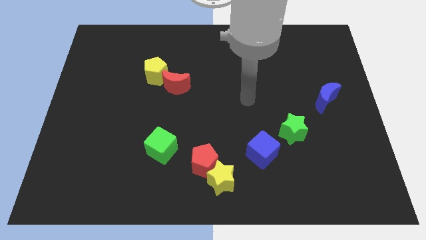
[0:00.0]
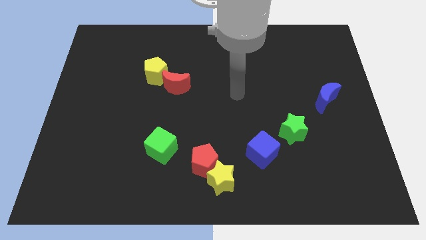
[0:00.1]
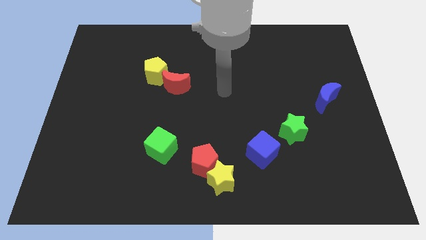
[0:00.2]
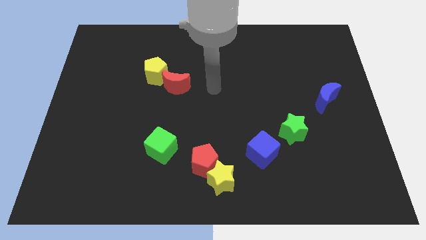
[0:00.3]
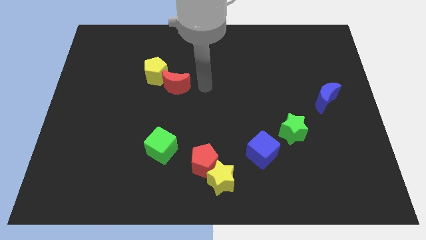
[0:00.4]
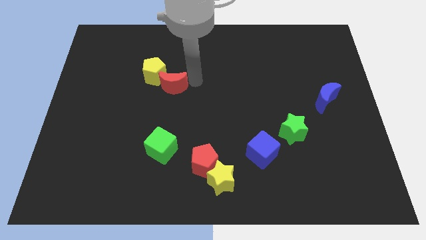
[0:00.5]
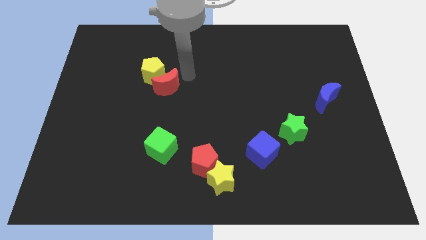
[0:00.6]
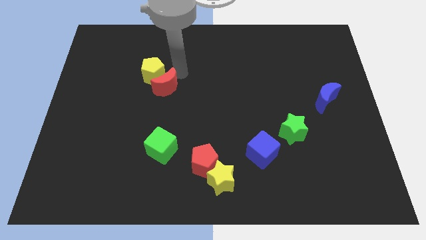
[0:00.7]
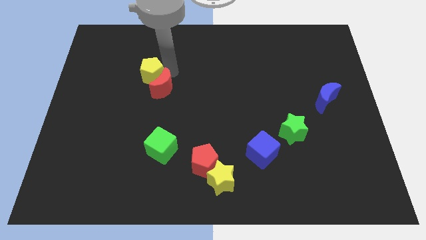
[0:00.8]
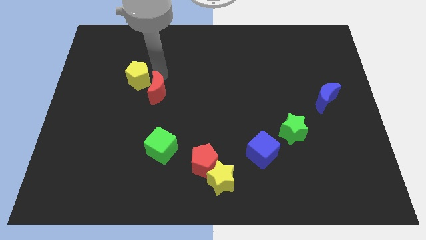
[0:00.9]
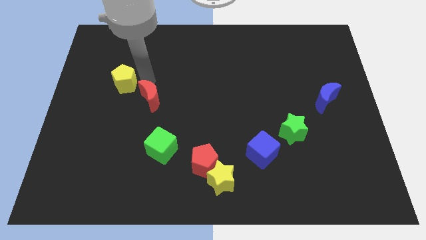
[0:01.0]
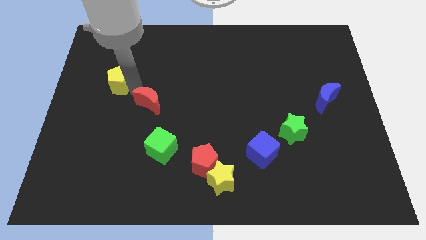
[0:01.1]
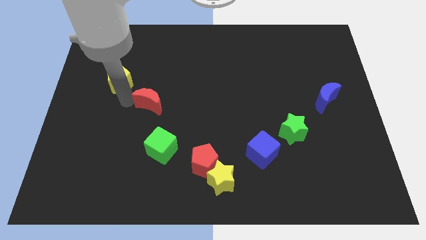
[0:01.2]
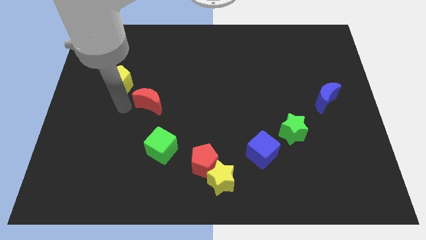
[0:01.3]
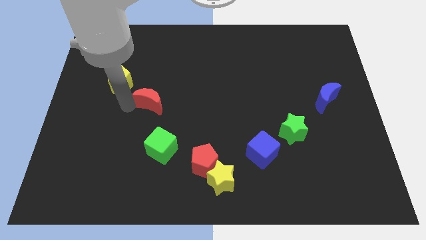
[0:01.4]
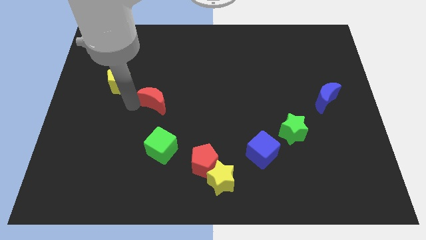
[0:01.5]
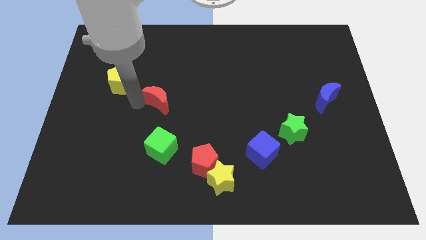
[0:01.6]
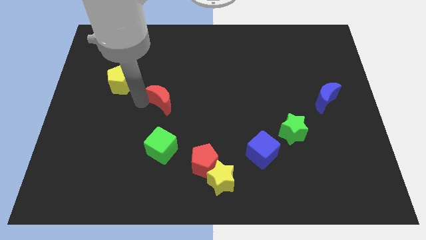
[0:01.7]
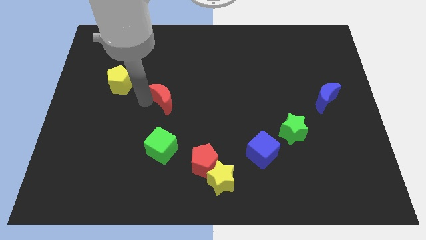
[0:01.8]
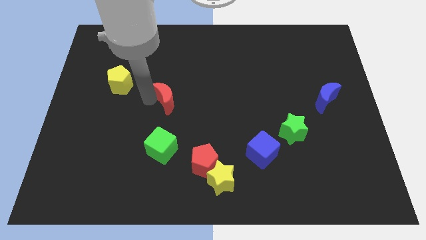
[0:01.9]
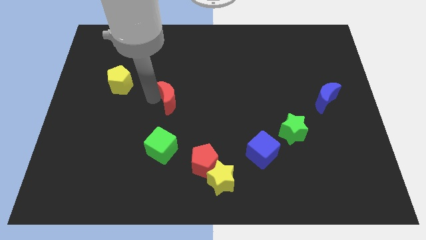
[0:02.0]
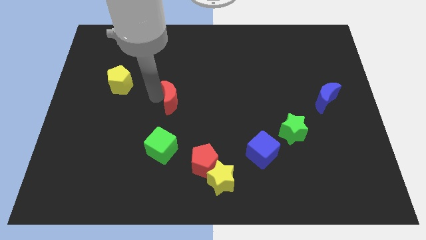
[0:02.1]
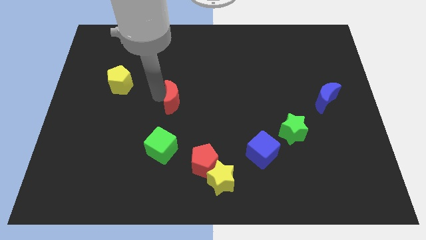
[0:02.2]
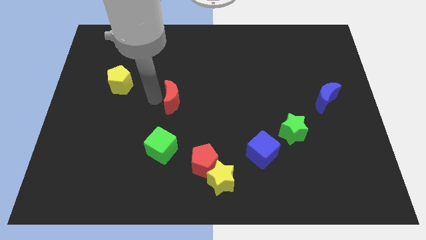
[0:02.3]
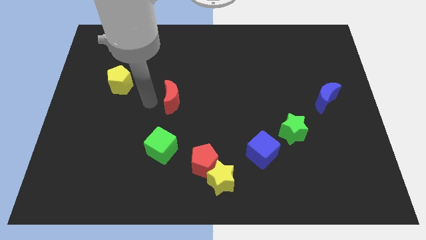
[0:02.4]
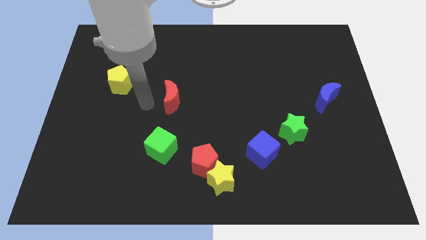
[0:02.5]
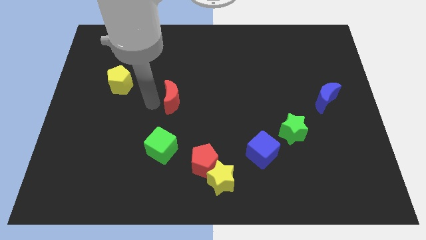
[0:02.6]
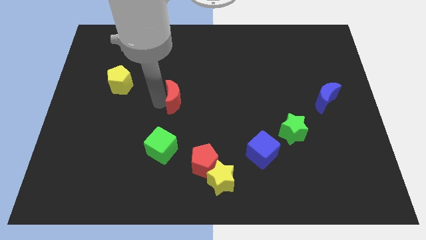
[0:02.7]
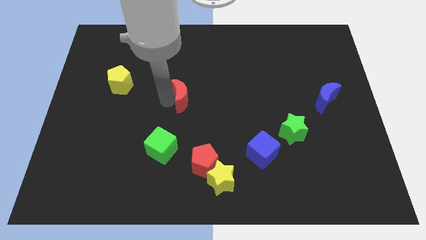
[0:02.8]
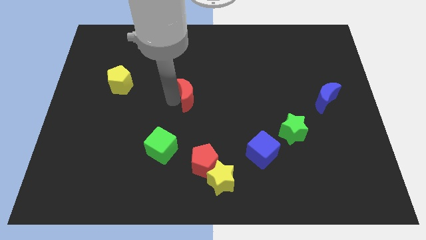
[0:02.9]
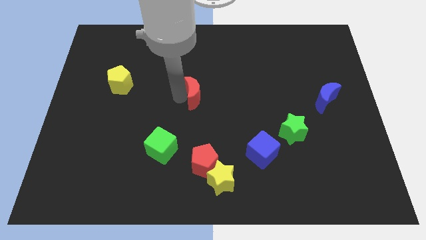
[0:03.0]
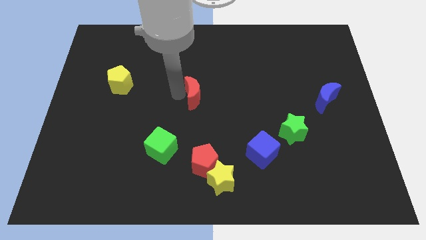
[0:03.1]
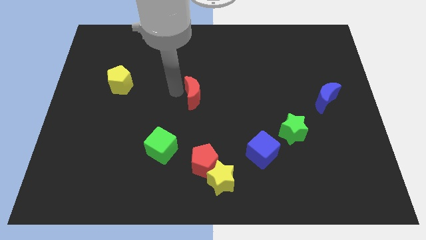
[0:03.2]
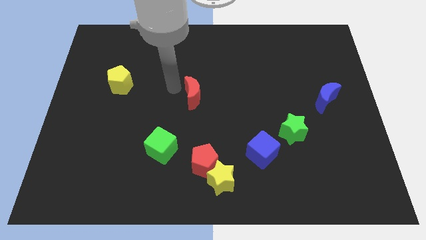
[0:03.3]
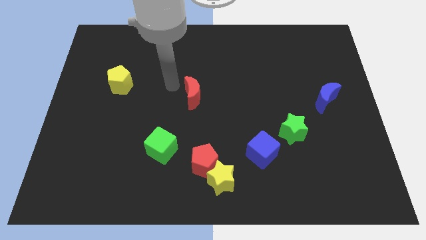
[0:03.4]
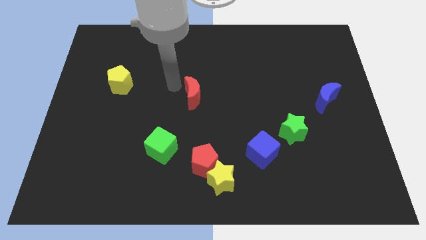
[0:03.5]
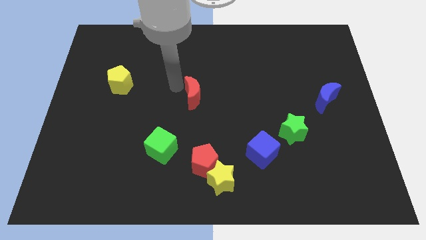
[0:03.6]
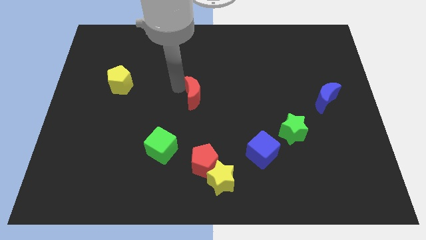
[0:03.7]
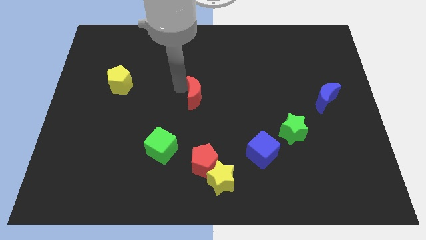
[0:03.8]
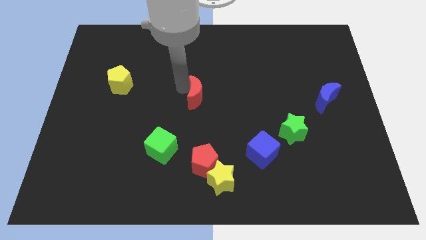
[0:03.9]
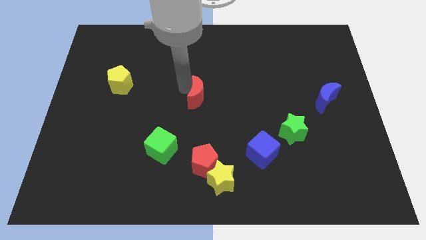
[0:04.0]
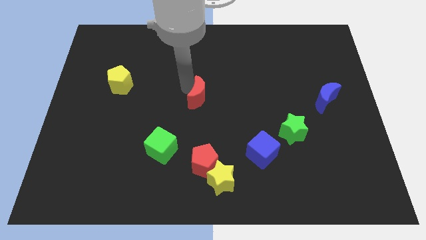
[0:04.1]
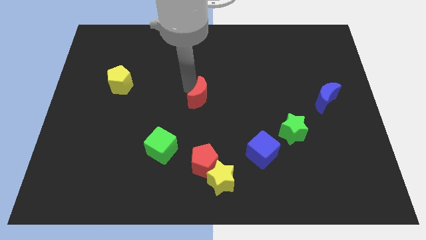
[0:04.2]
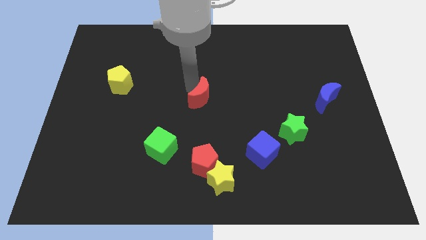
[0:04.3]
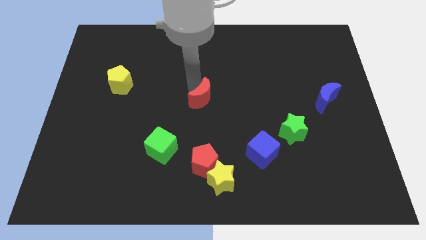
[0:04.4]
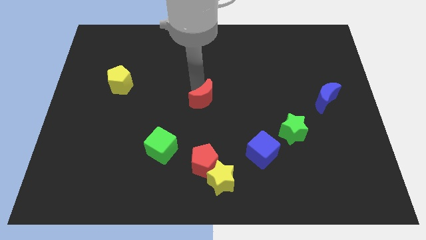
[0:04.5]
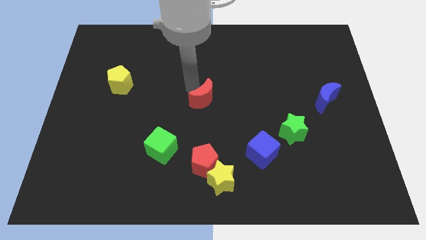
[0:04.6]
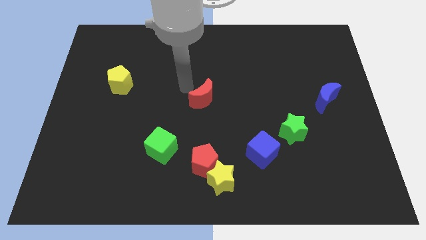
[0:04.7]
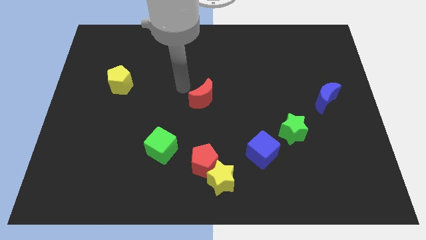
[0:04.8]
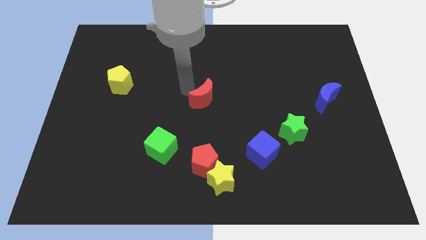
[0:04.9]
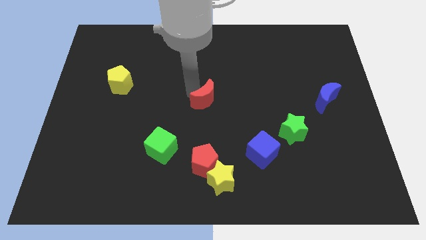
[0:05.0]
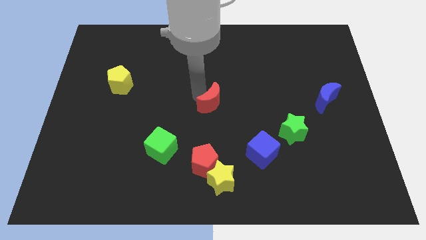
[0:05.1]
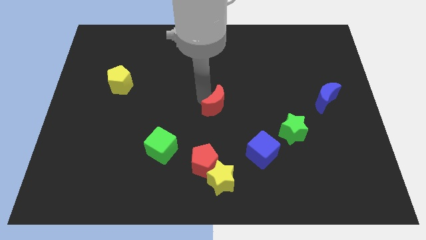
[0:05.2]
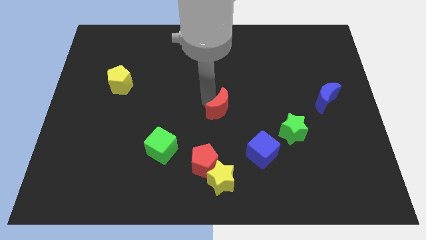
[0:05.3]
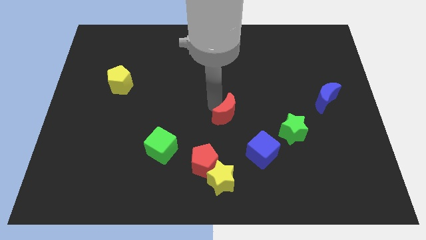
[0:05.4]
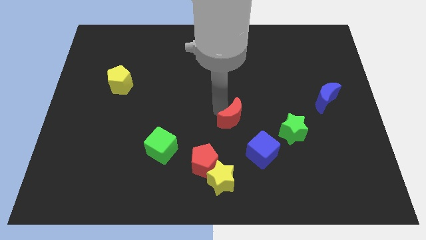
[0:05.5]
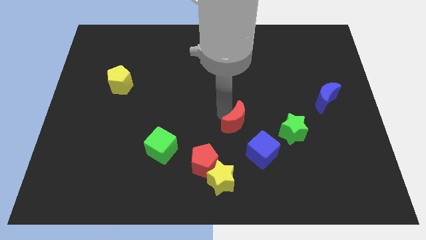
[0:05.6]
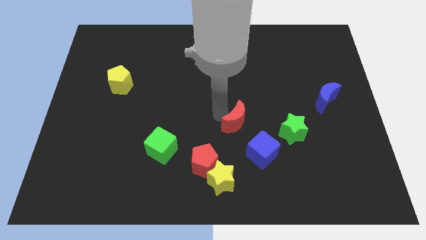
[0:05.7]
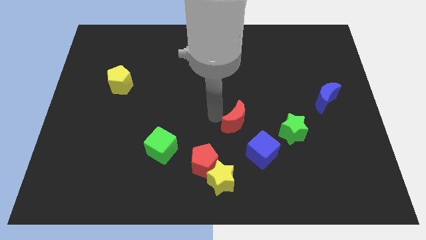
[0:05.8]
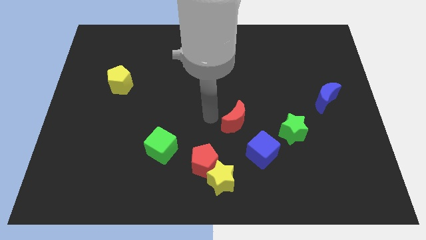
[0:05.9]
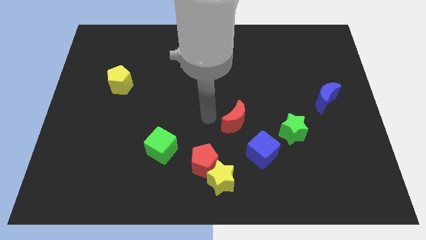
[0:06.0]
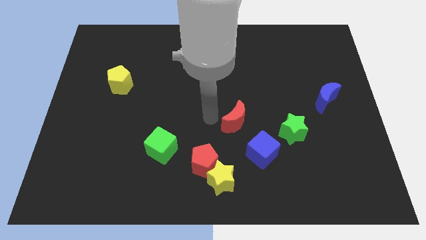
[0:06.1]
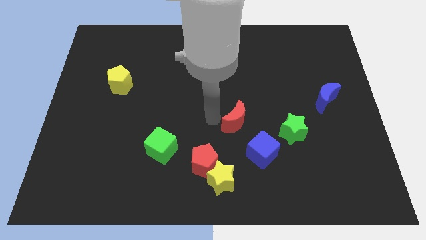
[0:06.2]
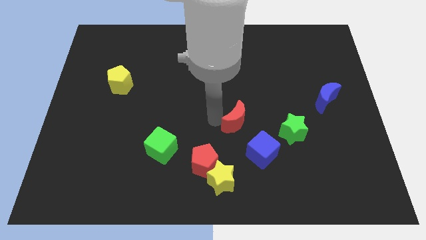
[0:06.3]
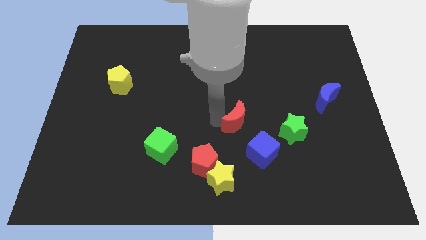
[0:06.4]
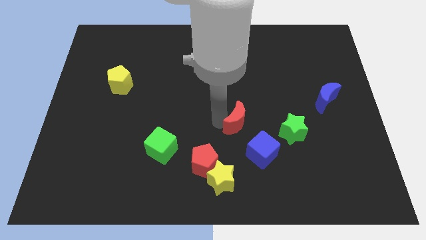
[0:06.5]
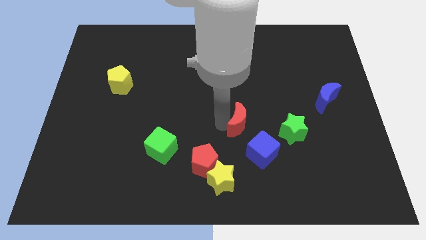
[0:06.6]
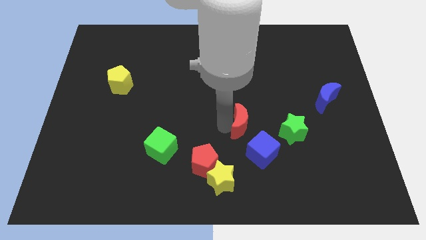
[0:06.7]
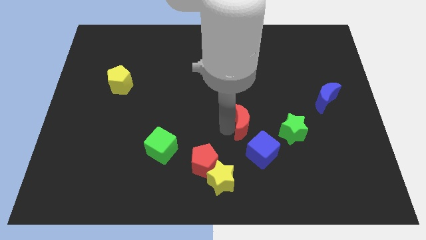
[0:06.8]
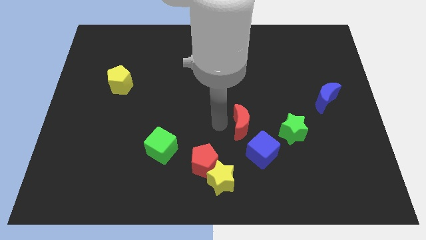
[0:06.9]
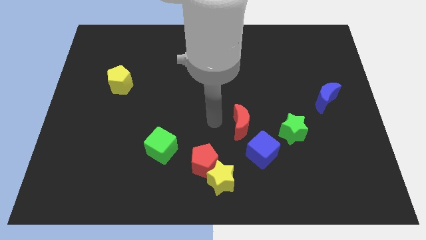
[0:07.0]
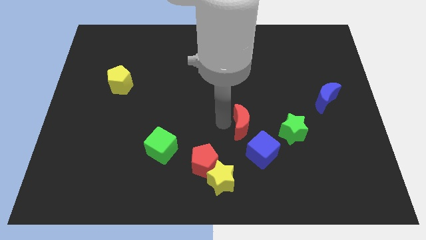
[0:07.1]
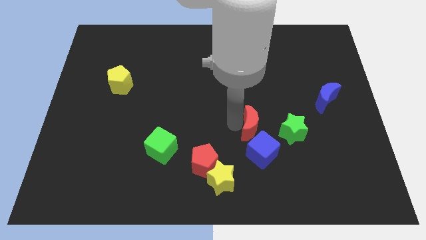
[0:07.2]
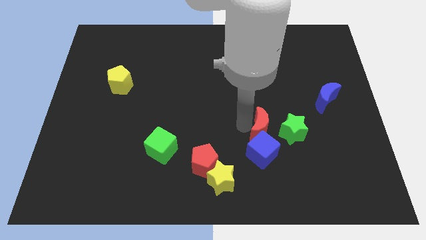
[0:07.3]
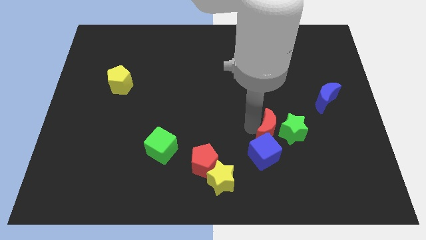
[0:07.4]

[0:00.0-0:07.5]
move the red moon next to the green star
